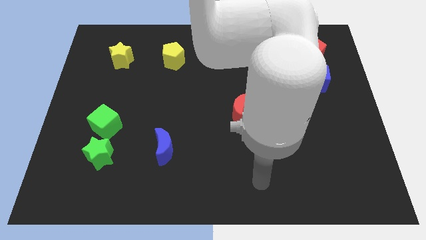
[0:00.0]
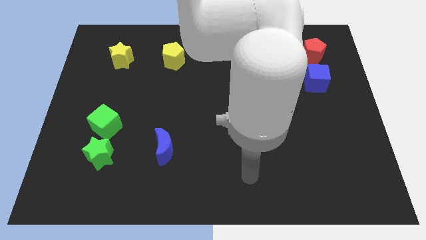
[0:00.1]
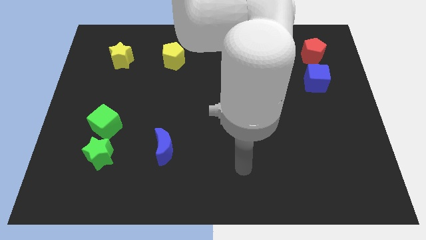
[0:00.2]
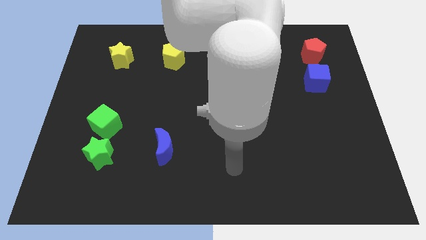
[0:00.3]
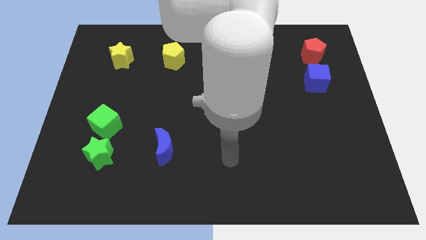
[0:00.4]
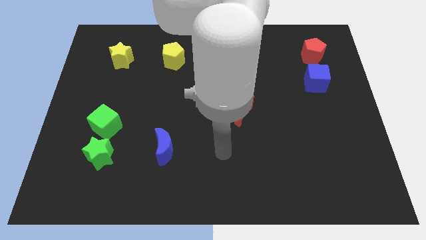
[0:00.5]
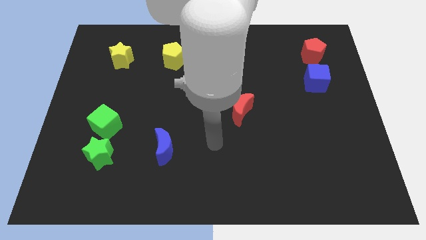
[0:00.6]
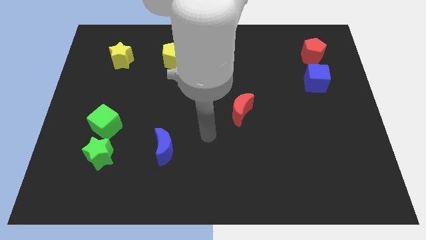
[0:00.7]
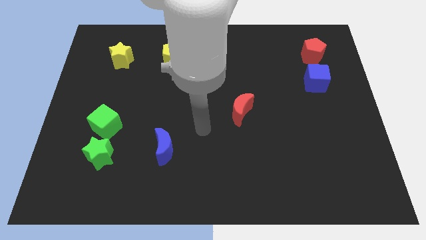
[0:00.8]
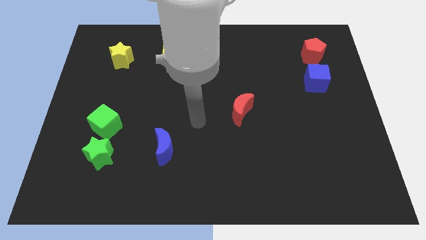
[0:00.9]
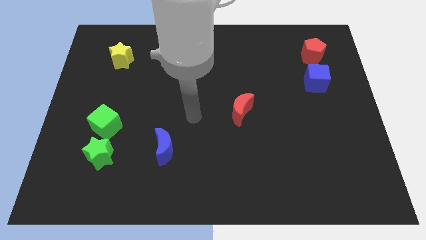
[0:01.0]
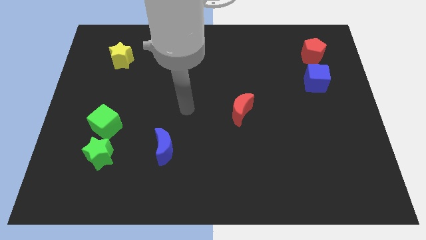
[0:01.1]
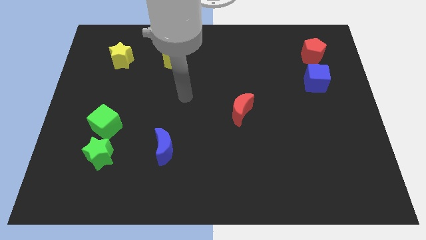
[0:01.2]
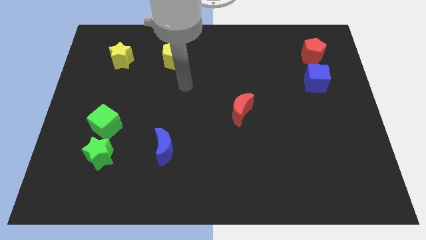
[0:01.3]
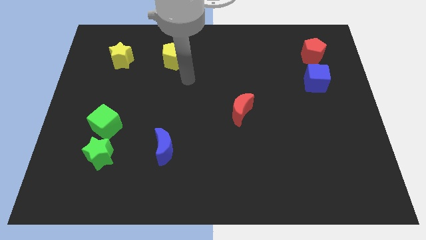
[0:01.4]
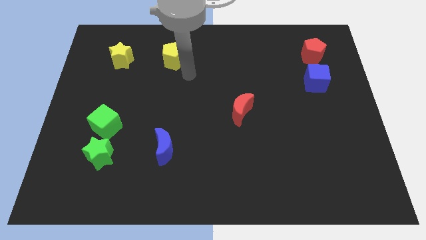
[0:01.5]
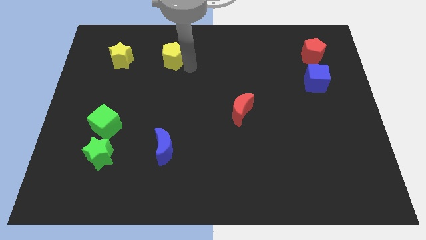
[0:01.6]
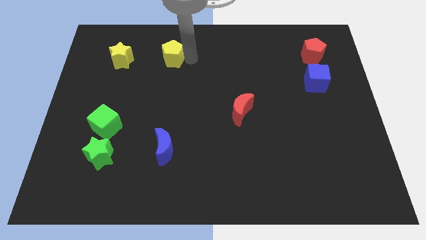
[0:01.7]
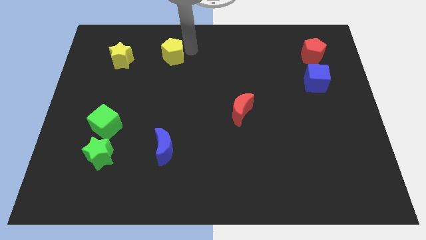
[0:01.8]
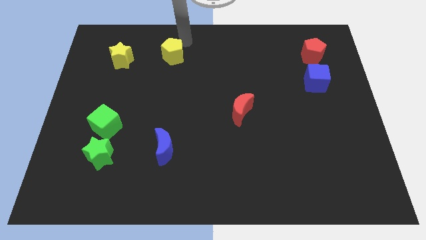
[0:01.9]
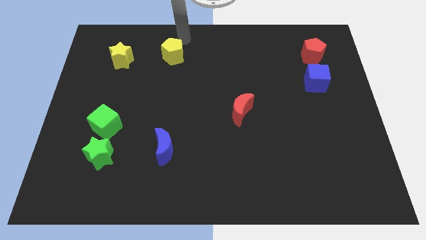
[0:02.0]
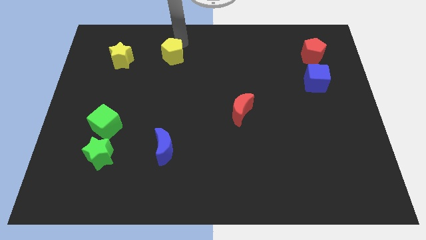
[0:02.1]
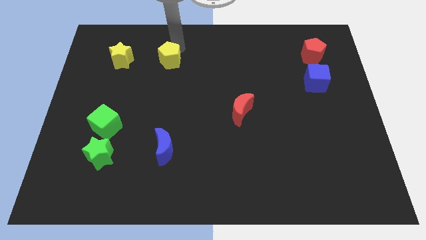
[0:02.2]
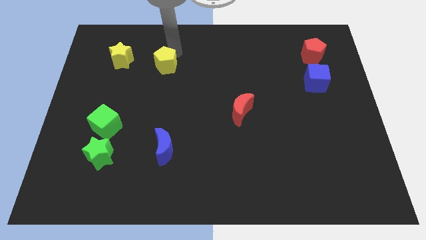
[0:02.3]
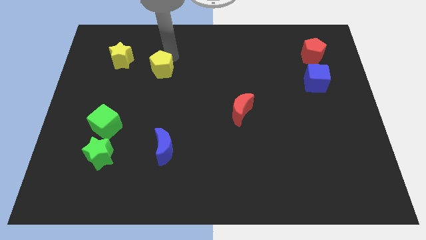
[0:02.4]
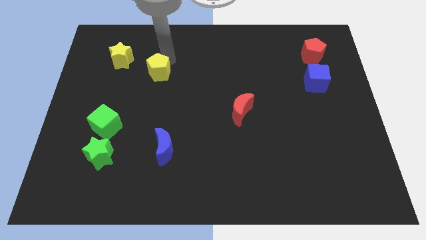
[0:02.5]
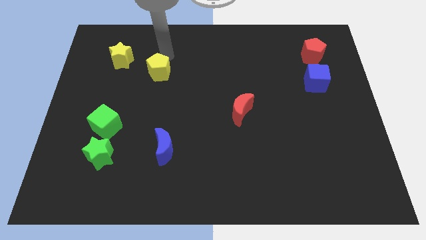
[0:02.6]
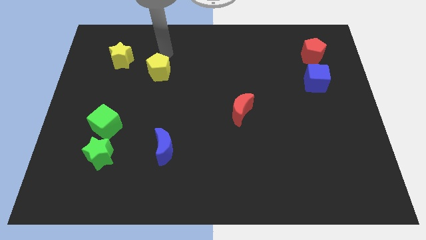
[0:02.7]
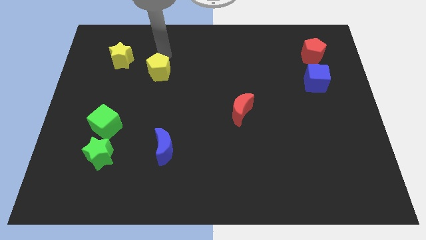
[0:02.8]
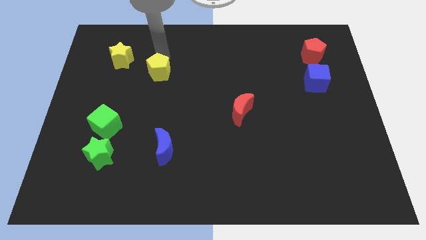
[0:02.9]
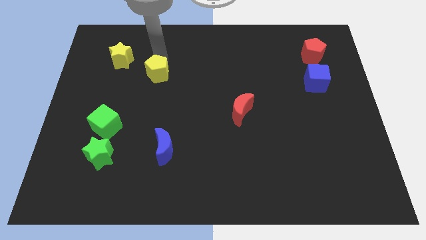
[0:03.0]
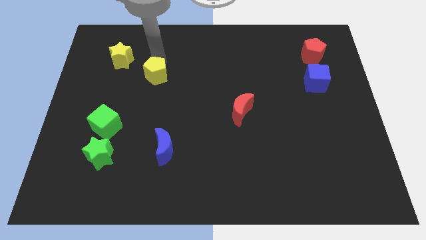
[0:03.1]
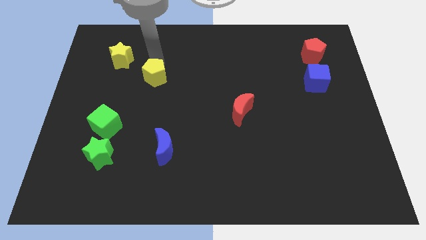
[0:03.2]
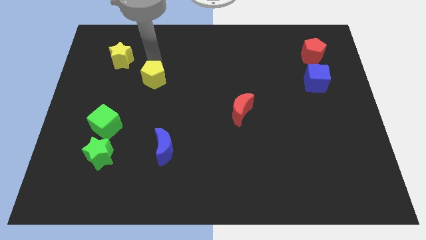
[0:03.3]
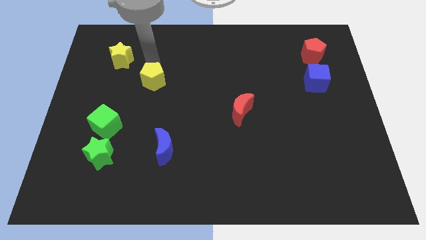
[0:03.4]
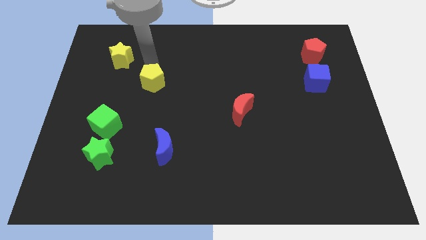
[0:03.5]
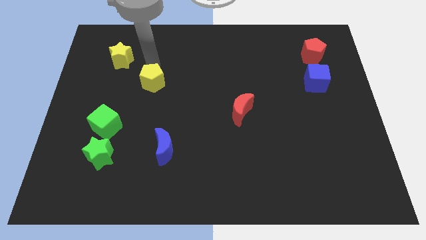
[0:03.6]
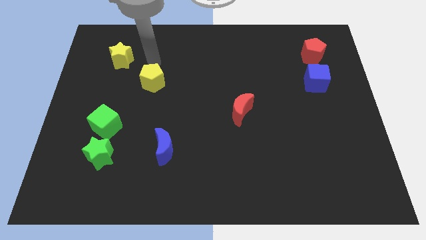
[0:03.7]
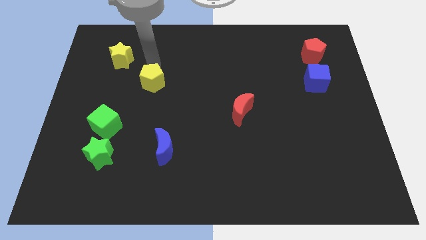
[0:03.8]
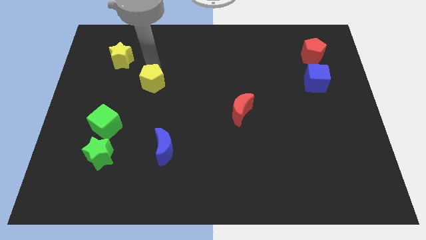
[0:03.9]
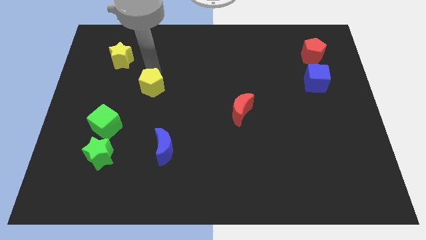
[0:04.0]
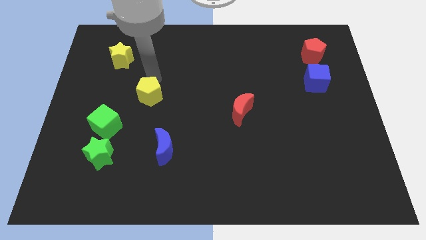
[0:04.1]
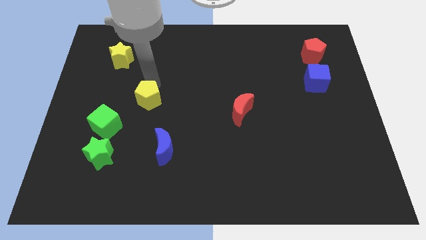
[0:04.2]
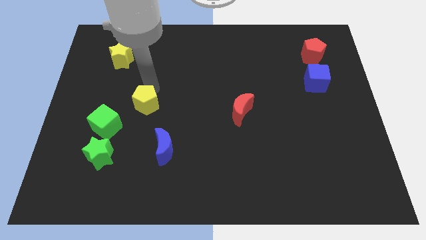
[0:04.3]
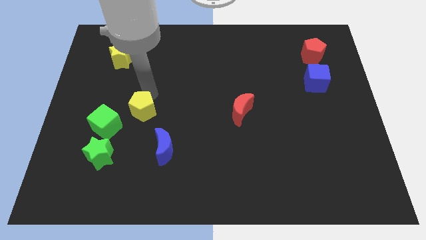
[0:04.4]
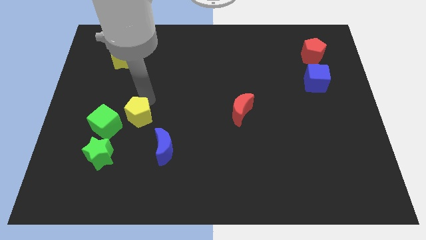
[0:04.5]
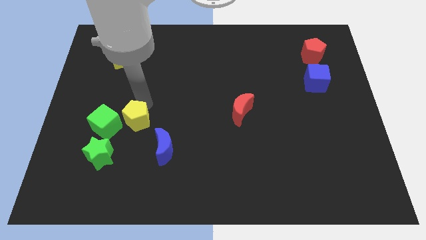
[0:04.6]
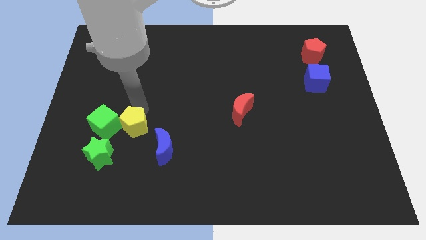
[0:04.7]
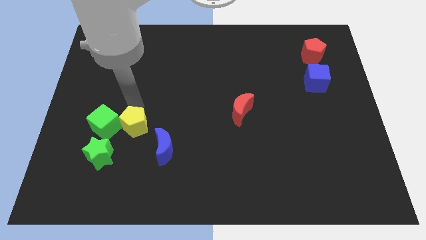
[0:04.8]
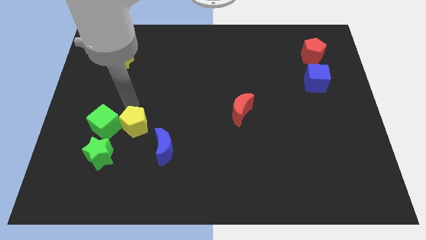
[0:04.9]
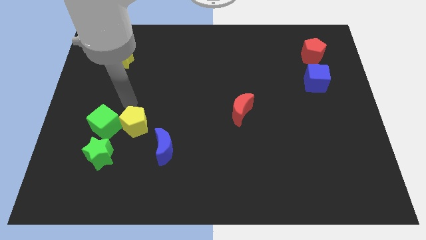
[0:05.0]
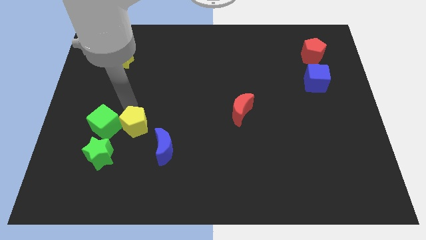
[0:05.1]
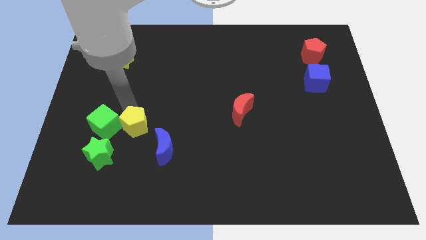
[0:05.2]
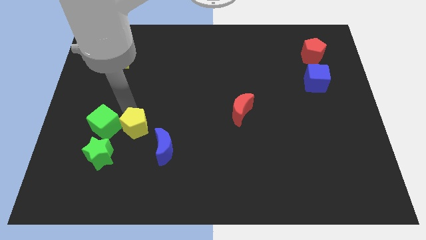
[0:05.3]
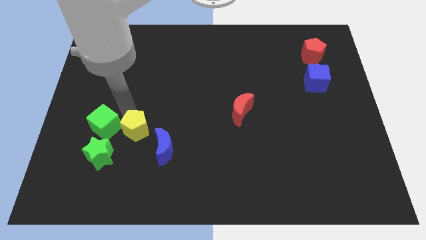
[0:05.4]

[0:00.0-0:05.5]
push the yellow pentagon downwards

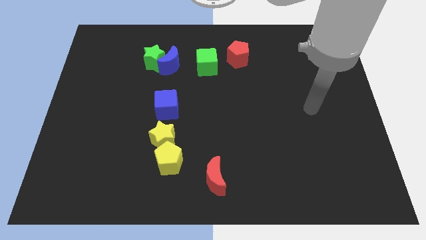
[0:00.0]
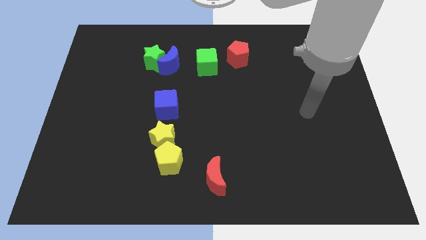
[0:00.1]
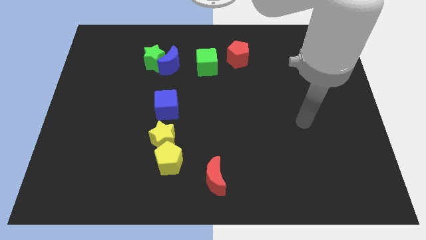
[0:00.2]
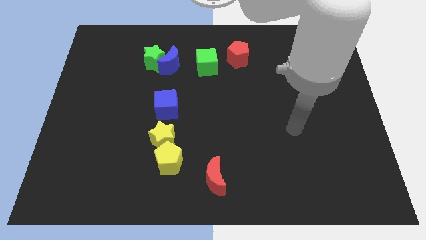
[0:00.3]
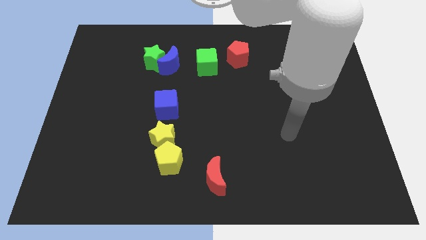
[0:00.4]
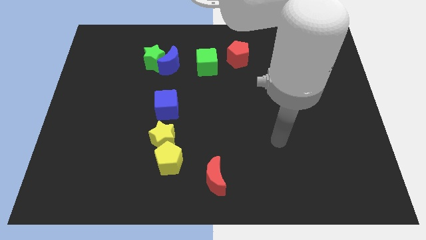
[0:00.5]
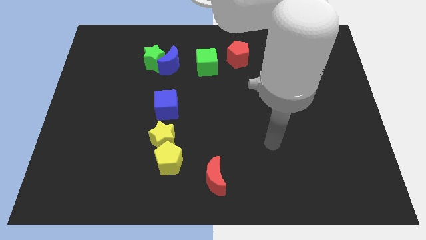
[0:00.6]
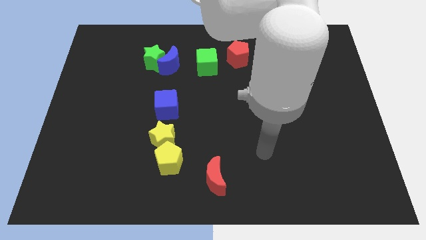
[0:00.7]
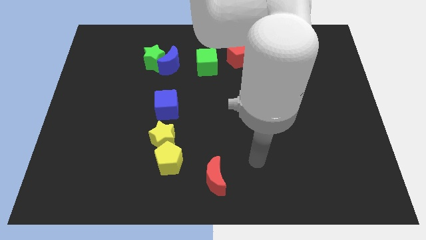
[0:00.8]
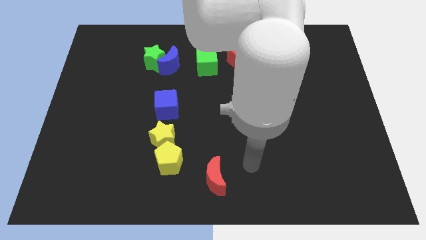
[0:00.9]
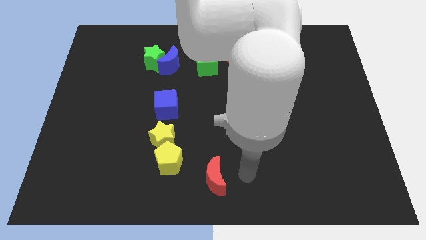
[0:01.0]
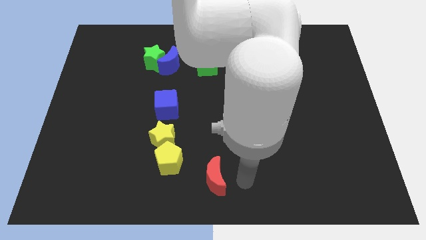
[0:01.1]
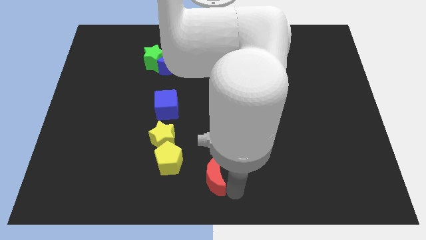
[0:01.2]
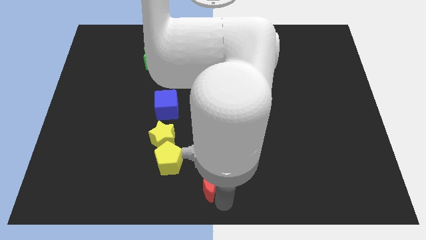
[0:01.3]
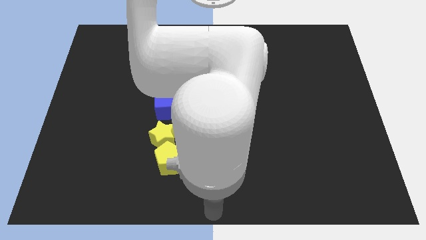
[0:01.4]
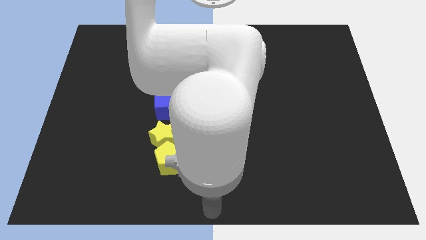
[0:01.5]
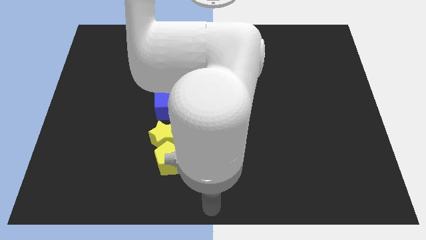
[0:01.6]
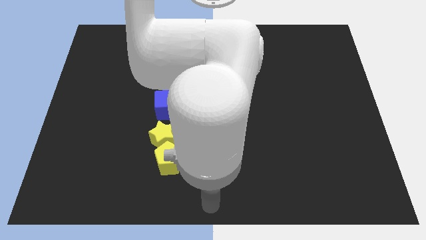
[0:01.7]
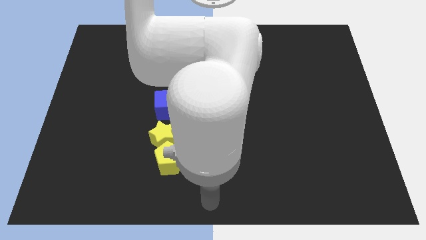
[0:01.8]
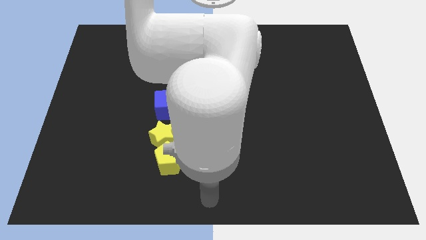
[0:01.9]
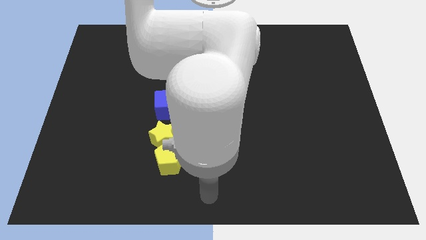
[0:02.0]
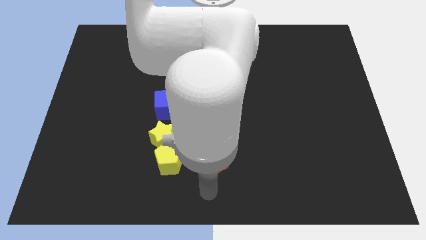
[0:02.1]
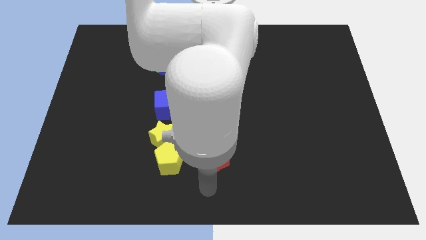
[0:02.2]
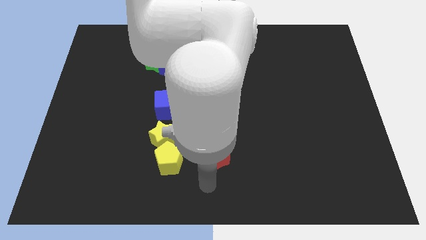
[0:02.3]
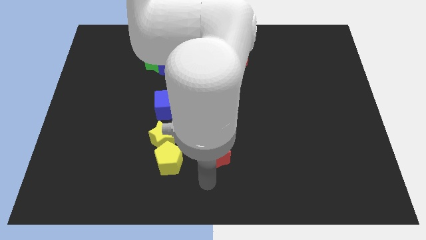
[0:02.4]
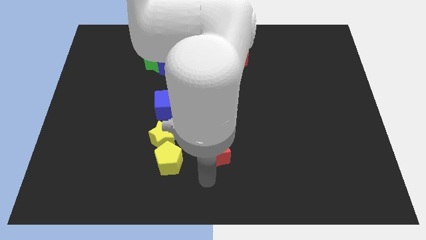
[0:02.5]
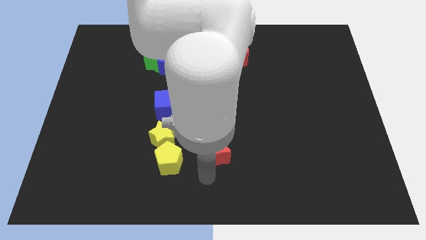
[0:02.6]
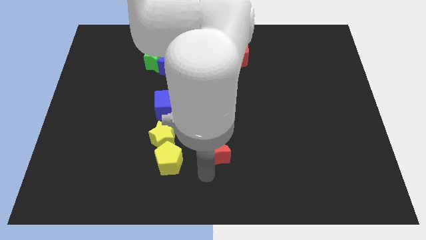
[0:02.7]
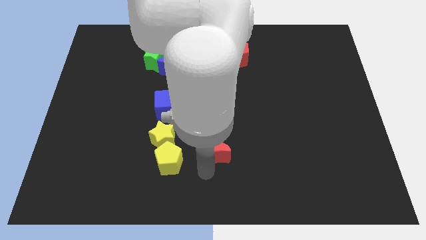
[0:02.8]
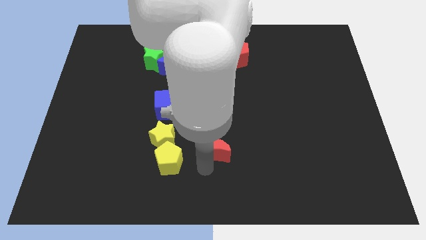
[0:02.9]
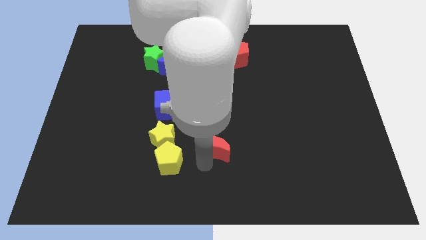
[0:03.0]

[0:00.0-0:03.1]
slide the red moon a little up

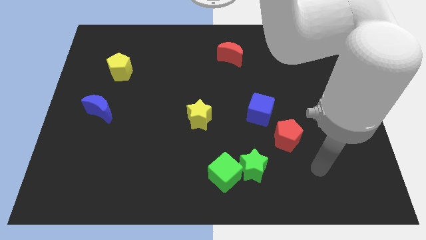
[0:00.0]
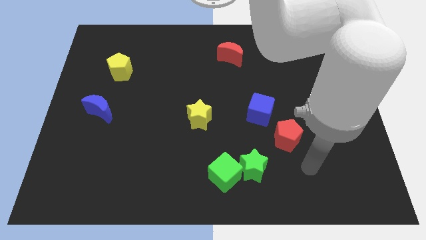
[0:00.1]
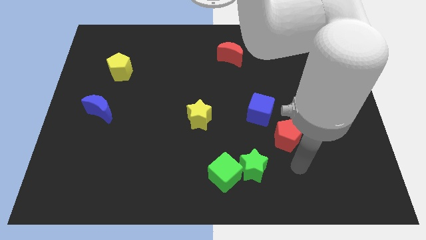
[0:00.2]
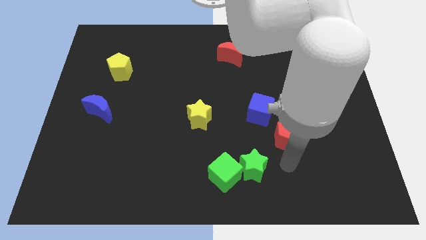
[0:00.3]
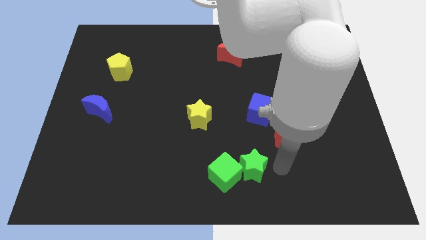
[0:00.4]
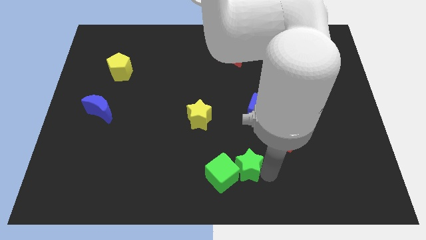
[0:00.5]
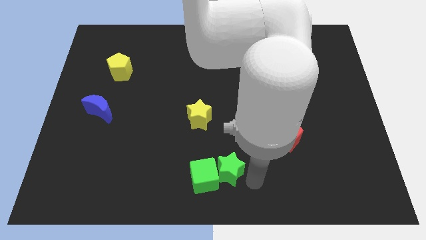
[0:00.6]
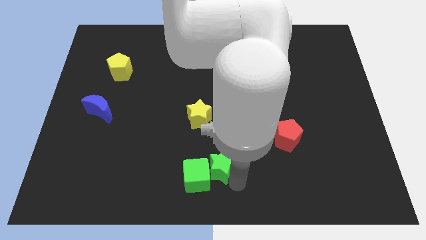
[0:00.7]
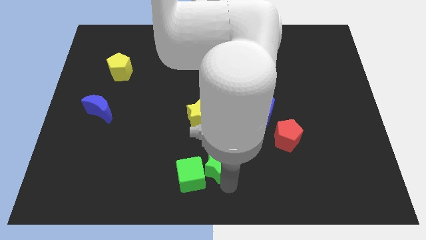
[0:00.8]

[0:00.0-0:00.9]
slightly push the green cube to the left
